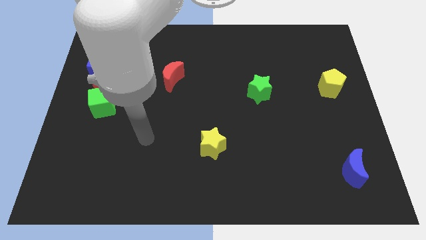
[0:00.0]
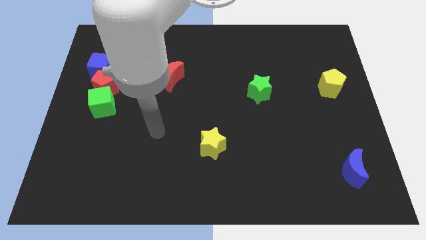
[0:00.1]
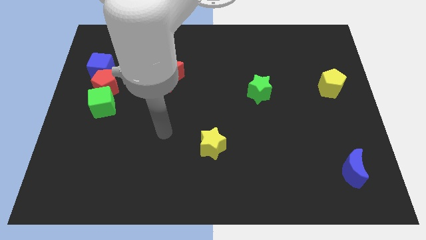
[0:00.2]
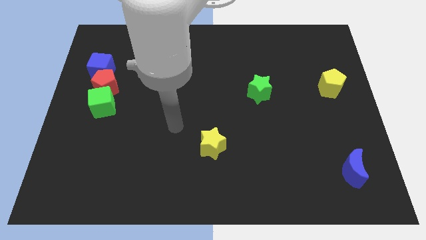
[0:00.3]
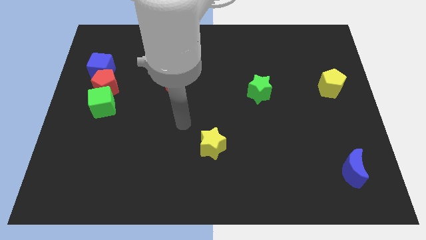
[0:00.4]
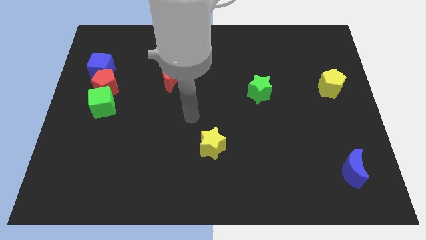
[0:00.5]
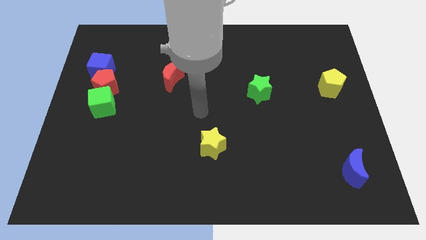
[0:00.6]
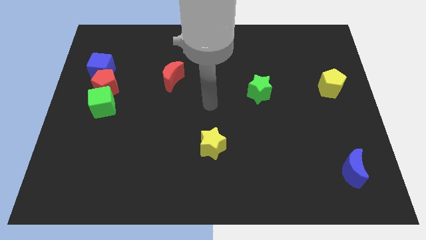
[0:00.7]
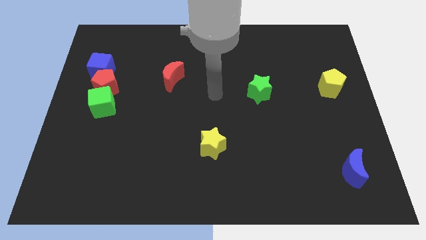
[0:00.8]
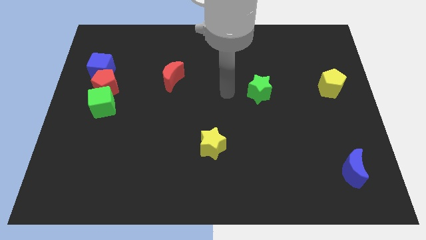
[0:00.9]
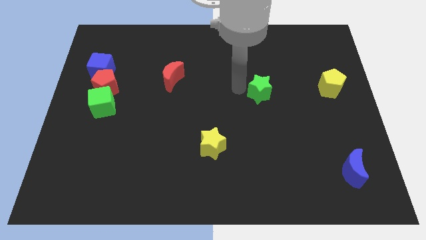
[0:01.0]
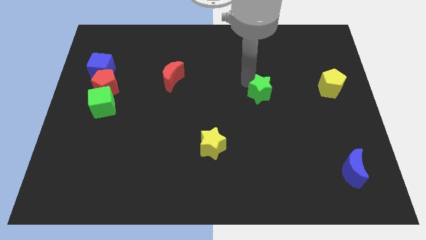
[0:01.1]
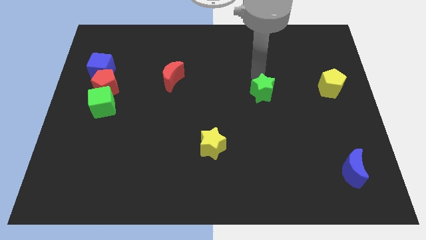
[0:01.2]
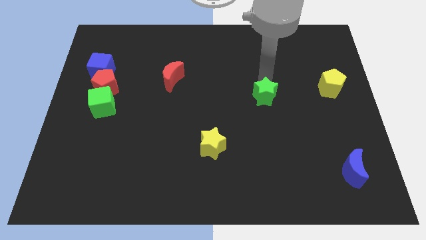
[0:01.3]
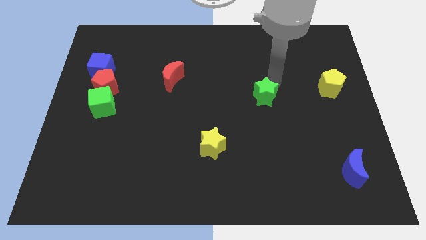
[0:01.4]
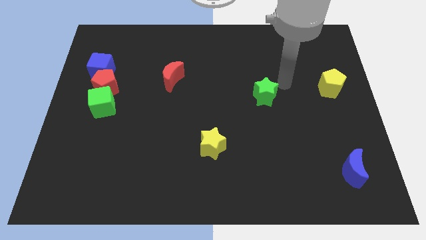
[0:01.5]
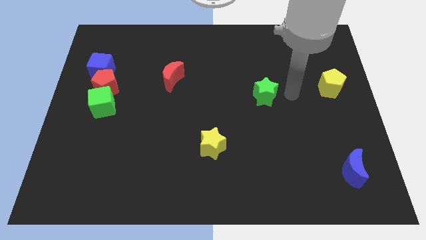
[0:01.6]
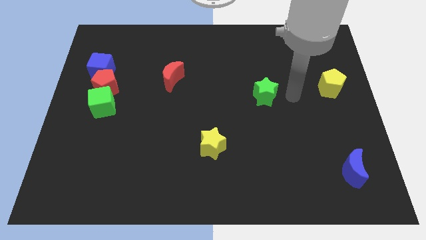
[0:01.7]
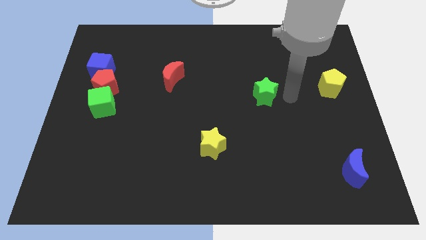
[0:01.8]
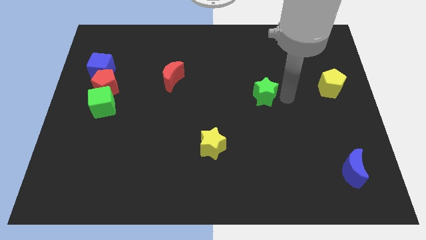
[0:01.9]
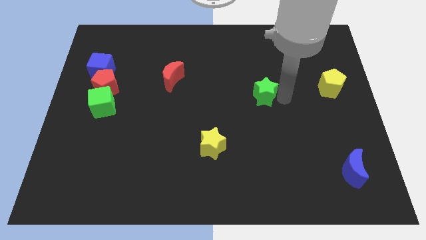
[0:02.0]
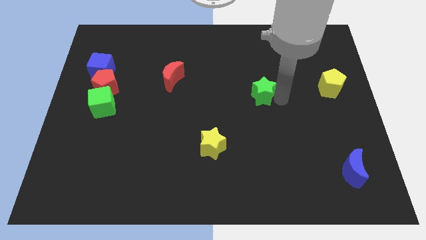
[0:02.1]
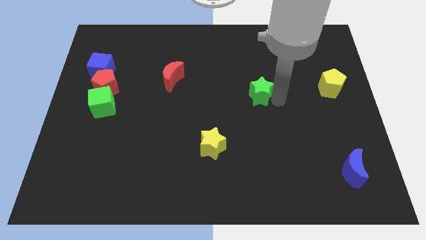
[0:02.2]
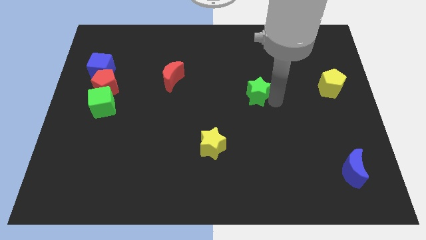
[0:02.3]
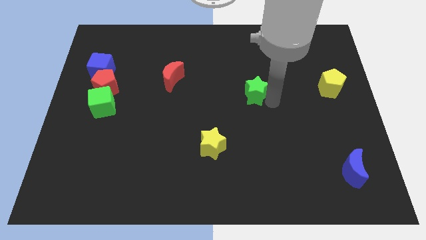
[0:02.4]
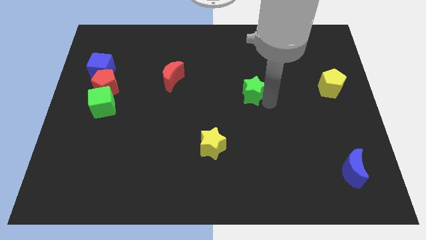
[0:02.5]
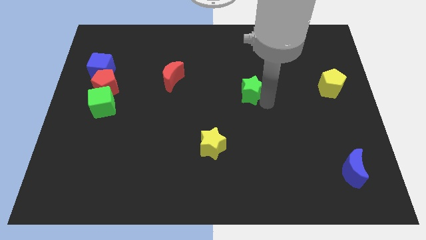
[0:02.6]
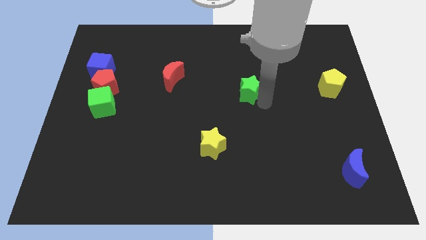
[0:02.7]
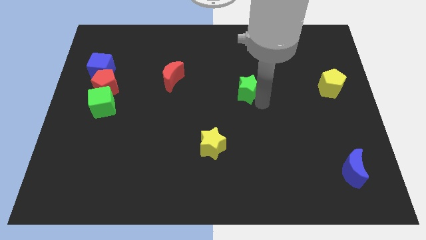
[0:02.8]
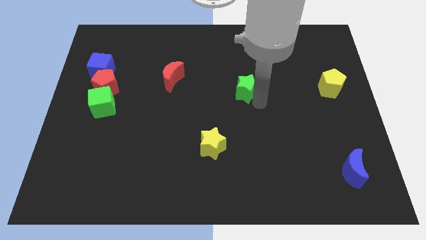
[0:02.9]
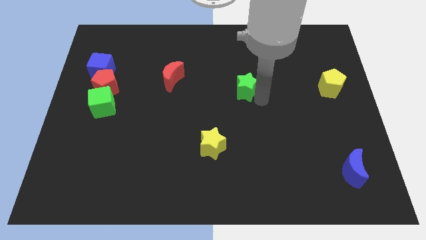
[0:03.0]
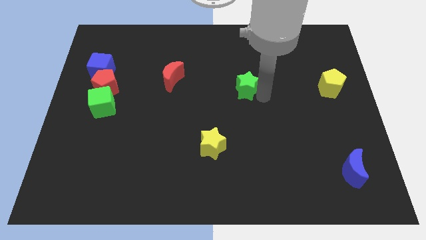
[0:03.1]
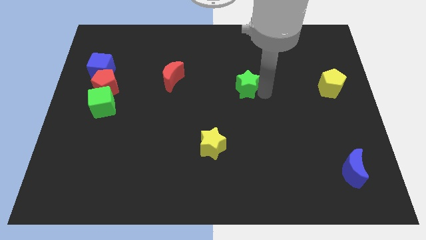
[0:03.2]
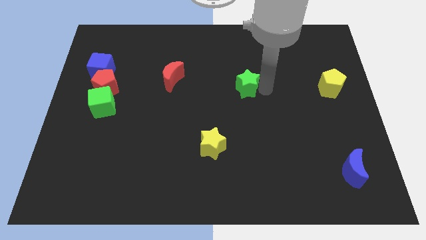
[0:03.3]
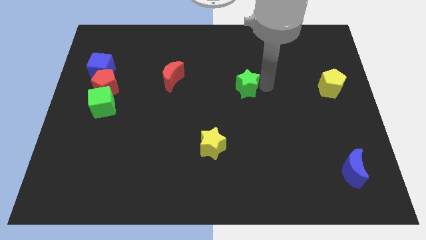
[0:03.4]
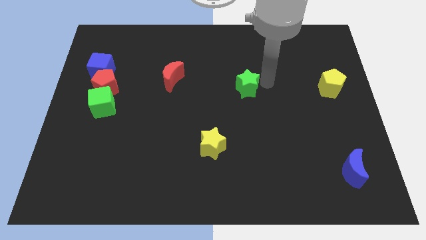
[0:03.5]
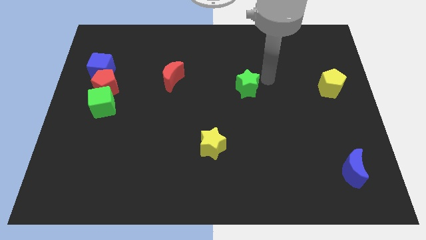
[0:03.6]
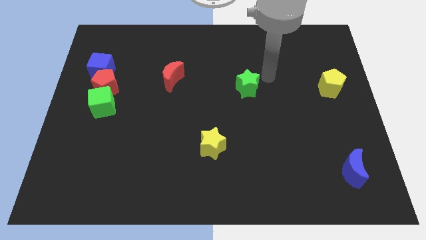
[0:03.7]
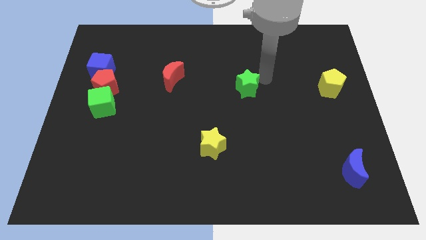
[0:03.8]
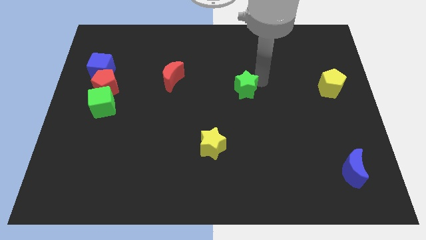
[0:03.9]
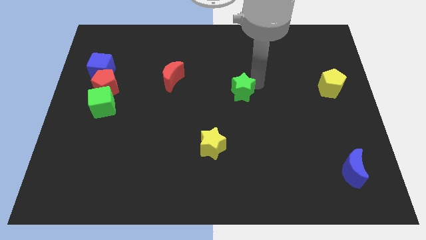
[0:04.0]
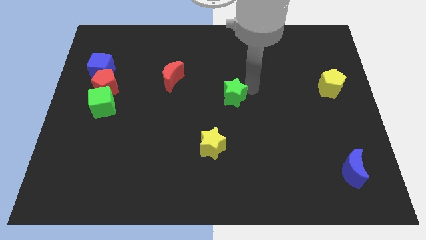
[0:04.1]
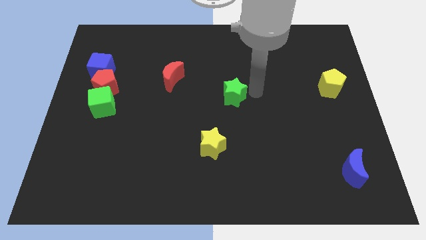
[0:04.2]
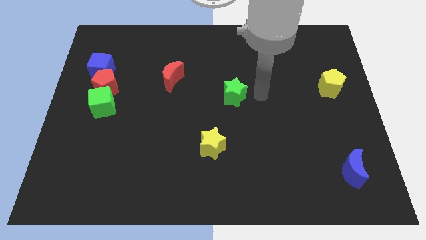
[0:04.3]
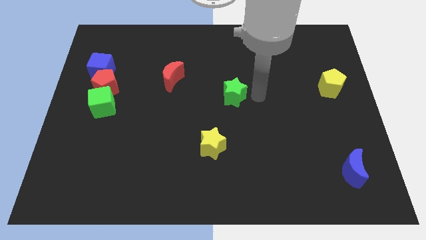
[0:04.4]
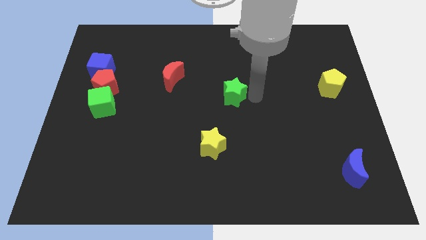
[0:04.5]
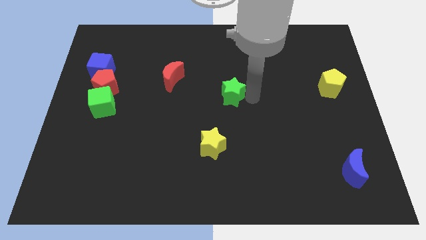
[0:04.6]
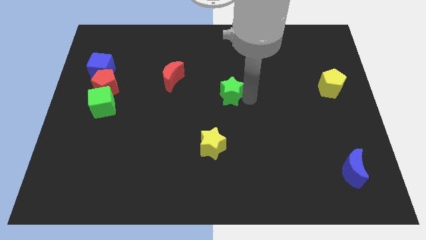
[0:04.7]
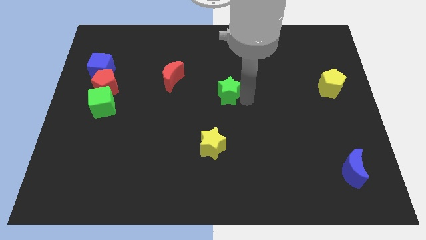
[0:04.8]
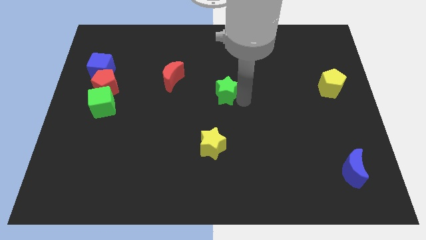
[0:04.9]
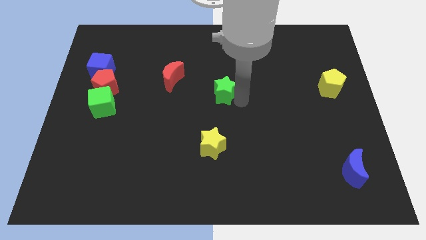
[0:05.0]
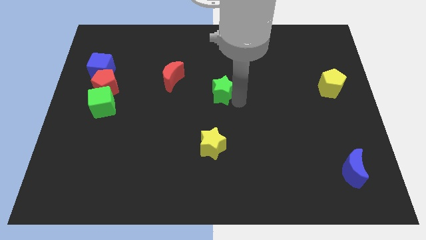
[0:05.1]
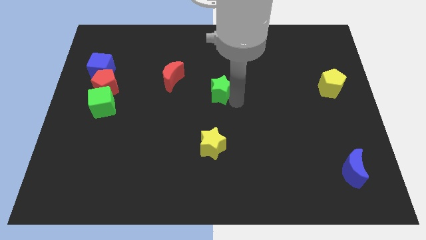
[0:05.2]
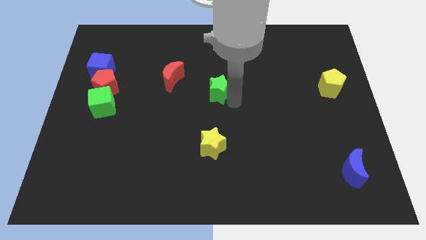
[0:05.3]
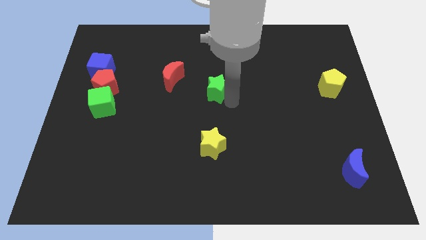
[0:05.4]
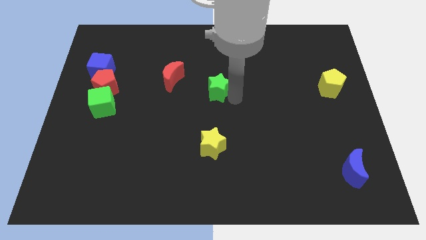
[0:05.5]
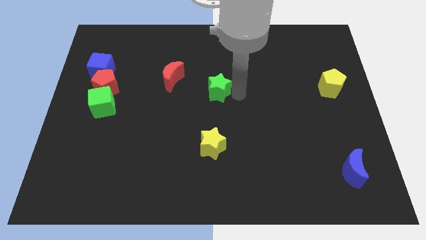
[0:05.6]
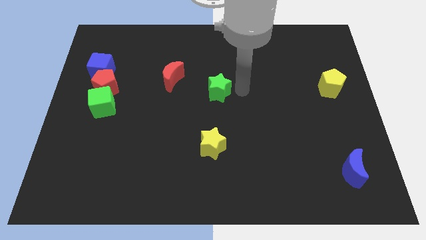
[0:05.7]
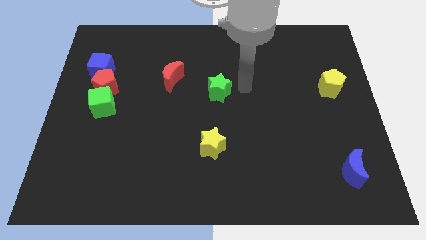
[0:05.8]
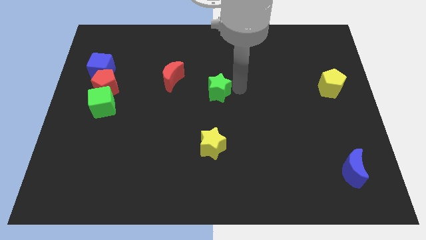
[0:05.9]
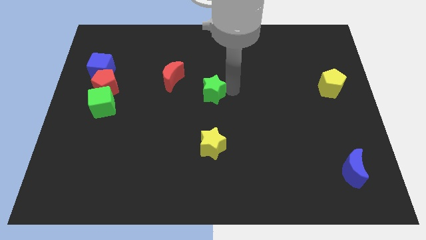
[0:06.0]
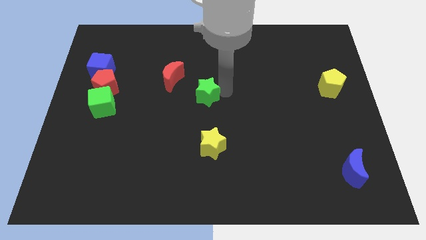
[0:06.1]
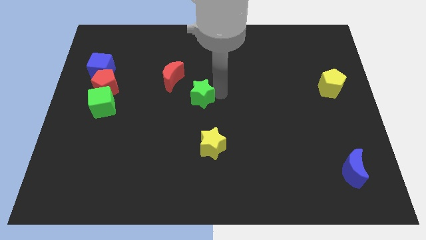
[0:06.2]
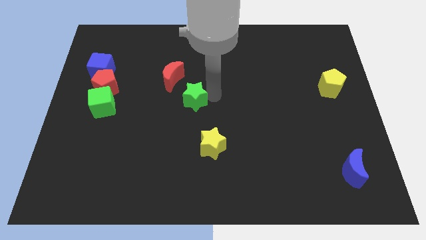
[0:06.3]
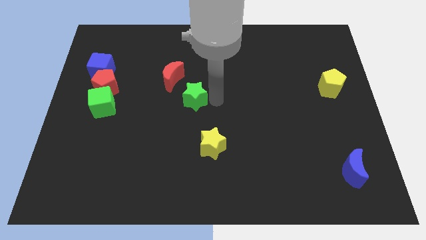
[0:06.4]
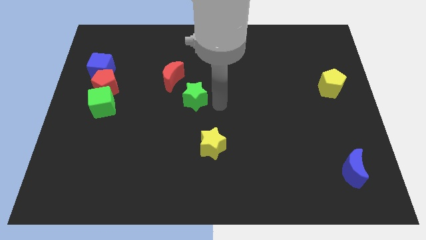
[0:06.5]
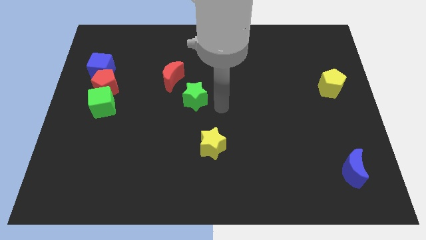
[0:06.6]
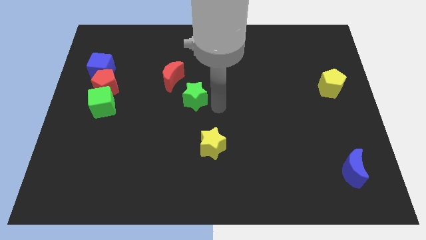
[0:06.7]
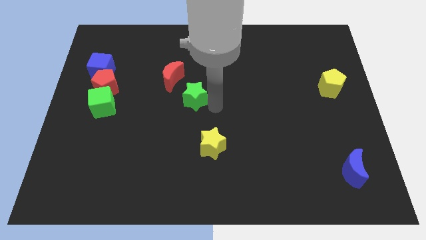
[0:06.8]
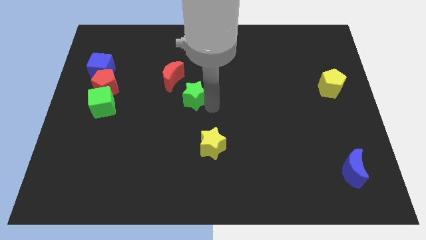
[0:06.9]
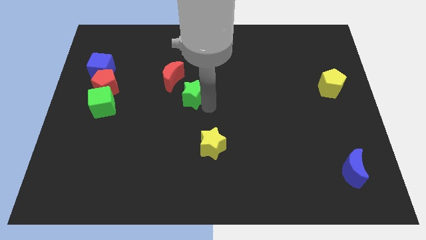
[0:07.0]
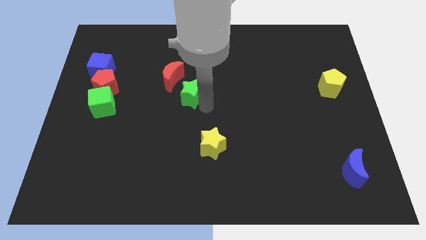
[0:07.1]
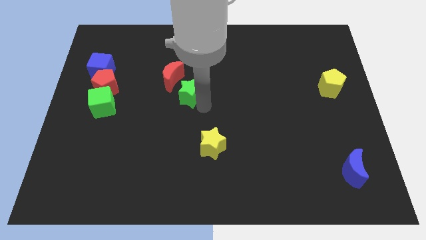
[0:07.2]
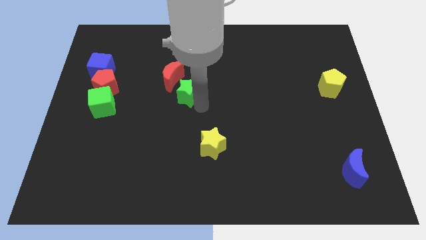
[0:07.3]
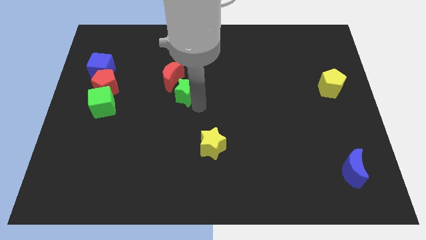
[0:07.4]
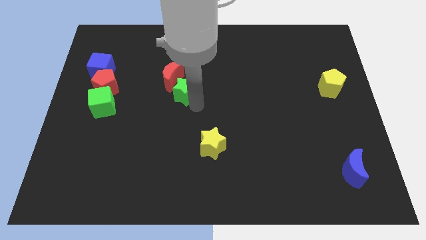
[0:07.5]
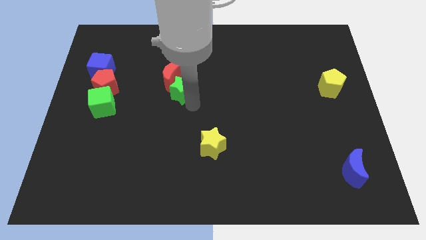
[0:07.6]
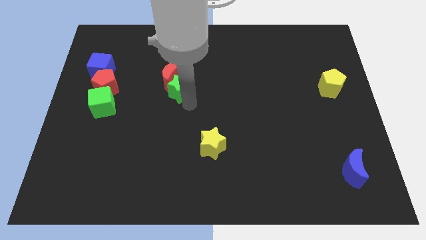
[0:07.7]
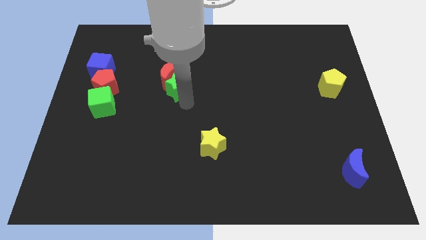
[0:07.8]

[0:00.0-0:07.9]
slide the green star to the left
